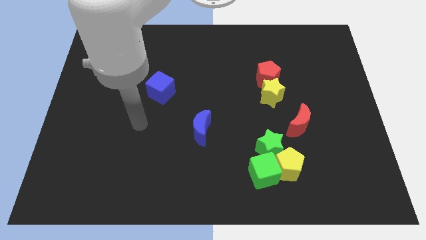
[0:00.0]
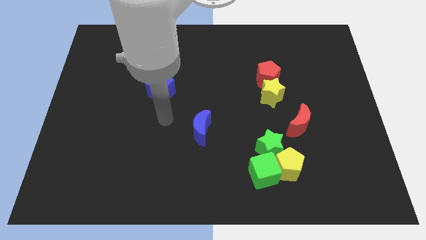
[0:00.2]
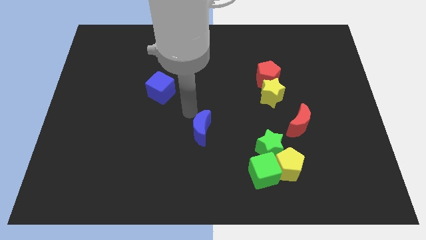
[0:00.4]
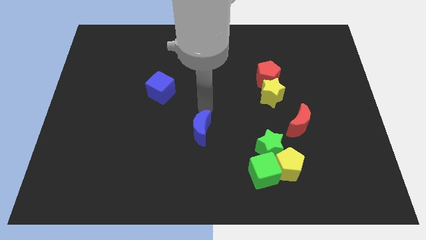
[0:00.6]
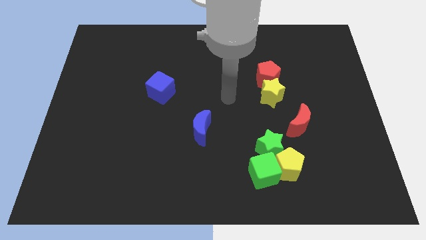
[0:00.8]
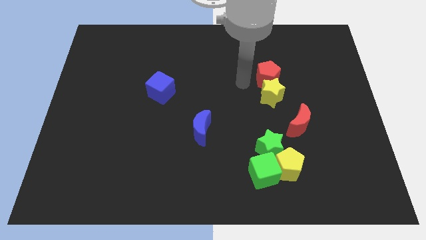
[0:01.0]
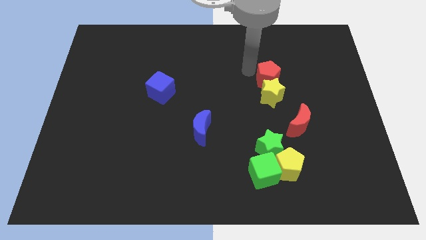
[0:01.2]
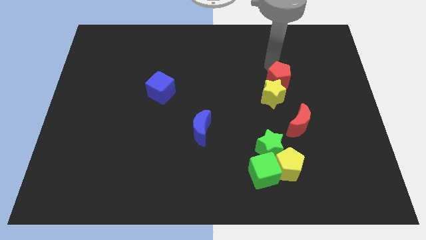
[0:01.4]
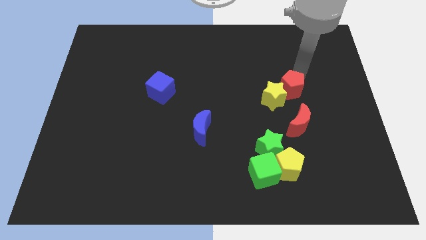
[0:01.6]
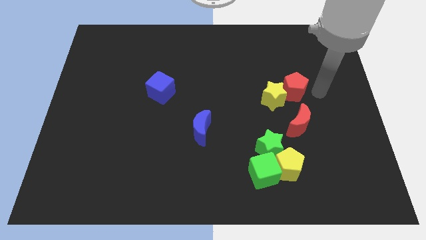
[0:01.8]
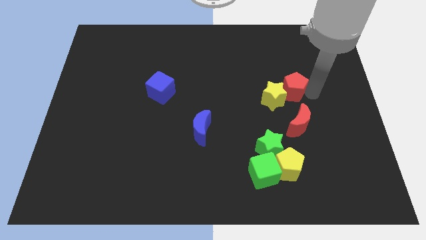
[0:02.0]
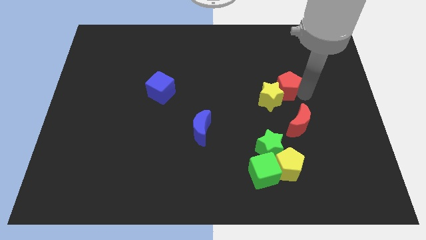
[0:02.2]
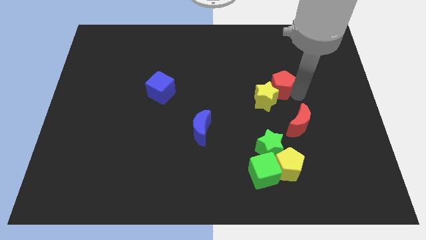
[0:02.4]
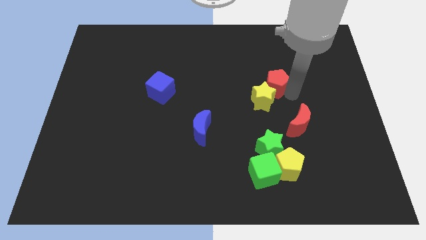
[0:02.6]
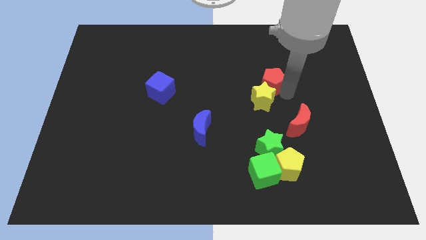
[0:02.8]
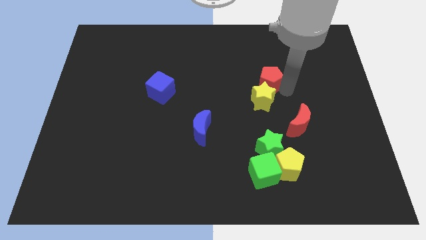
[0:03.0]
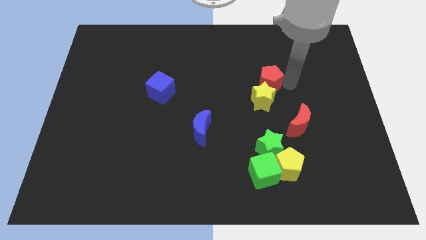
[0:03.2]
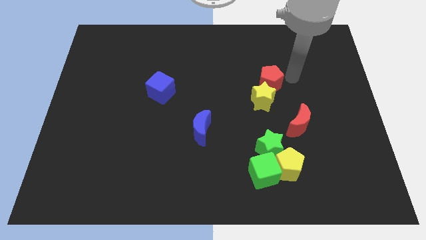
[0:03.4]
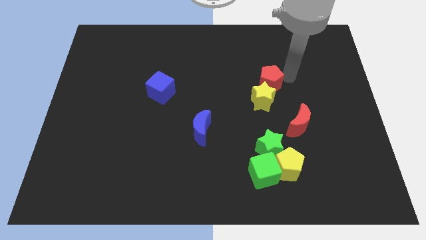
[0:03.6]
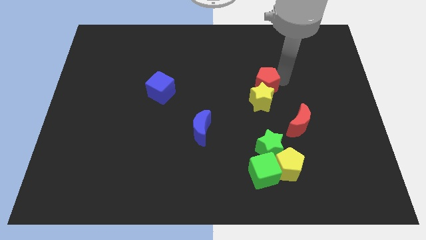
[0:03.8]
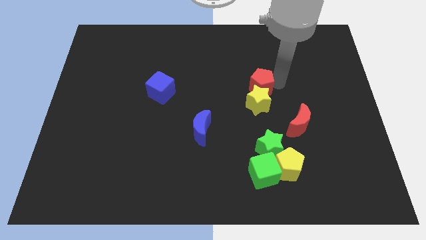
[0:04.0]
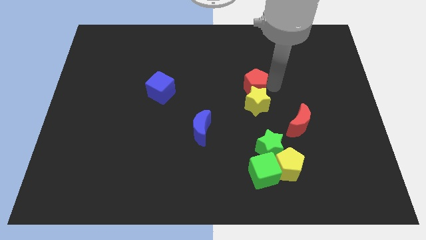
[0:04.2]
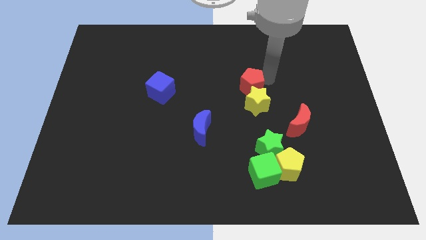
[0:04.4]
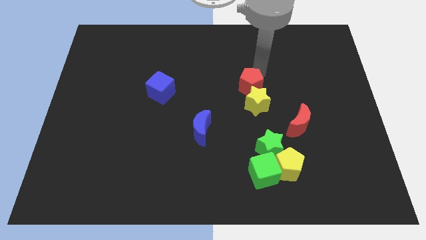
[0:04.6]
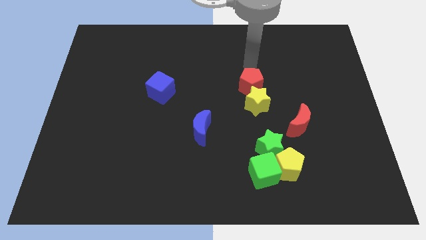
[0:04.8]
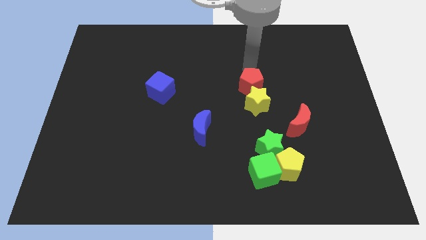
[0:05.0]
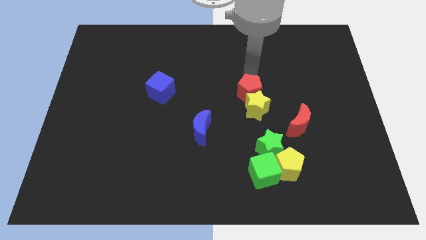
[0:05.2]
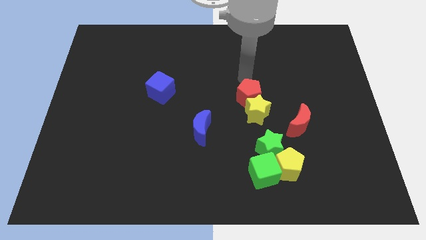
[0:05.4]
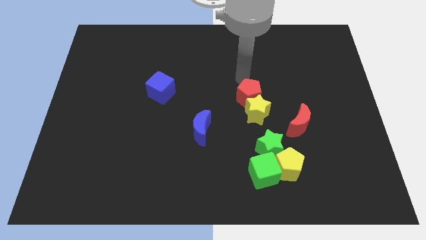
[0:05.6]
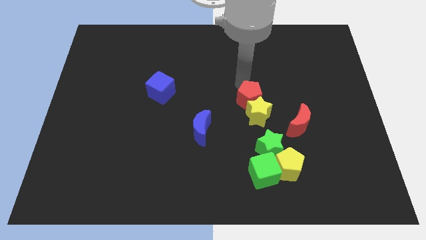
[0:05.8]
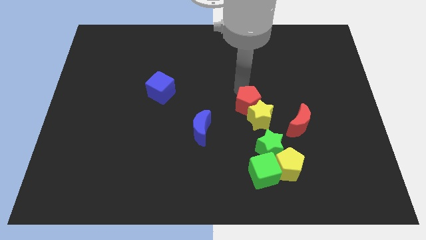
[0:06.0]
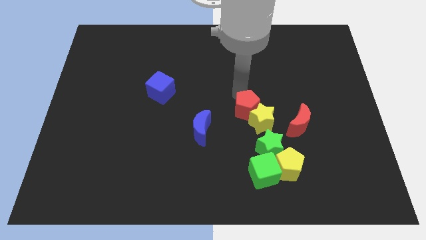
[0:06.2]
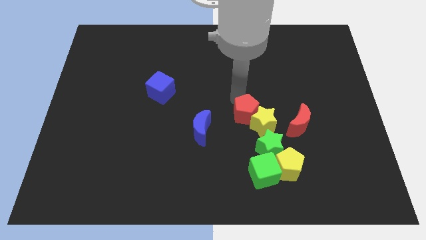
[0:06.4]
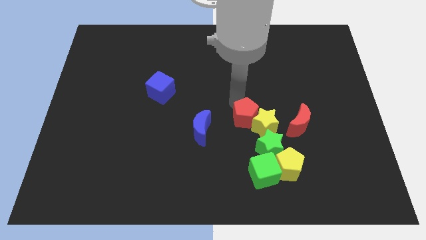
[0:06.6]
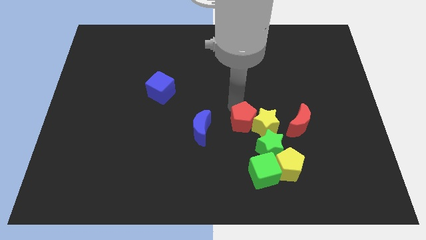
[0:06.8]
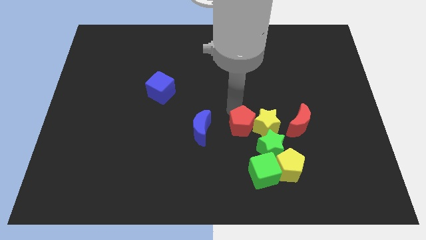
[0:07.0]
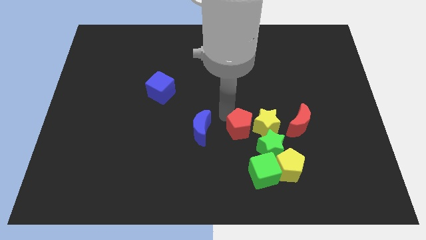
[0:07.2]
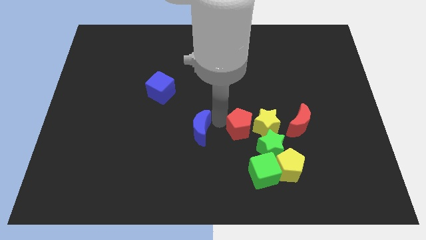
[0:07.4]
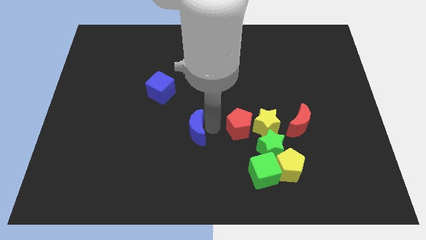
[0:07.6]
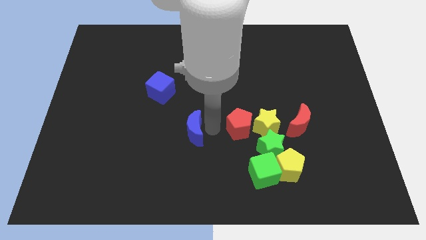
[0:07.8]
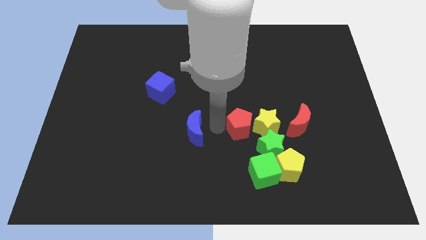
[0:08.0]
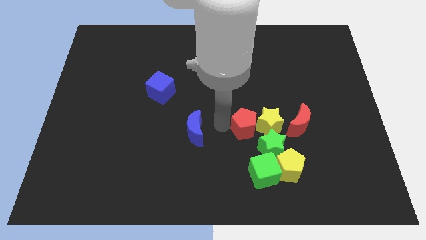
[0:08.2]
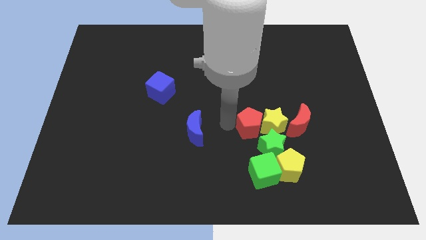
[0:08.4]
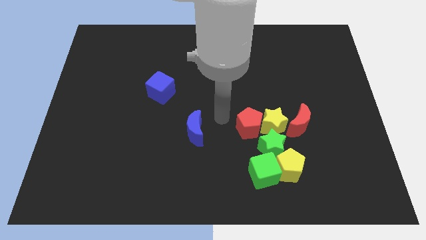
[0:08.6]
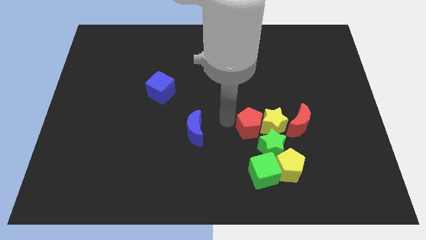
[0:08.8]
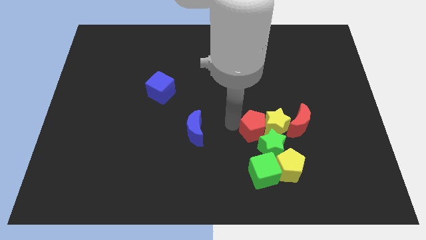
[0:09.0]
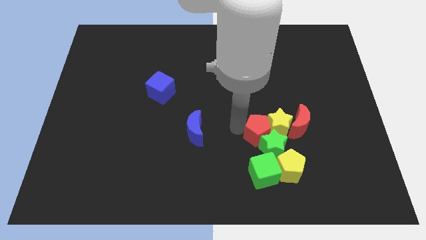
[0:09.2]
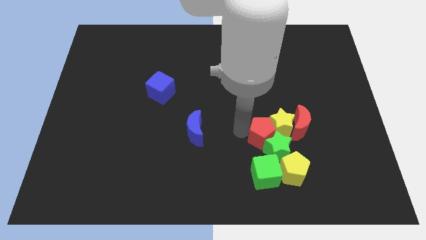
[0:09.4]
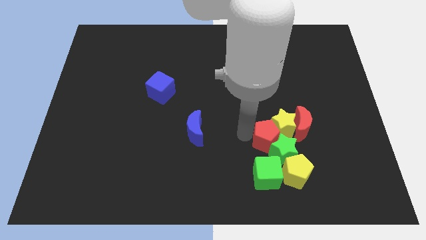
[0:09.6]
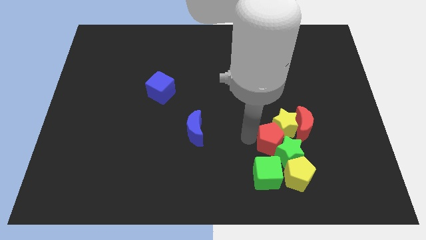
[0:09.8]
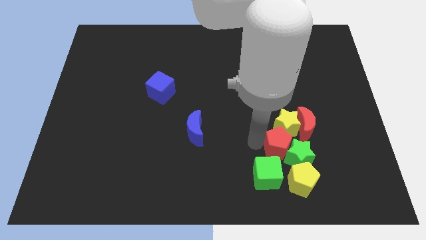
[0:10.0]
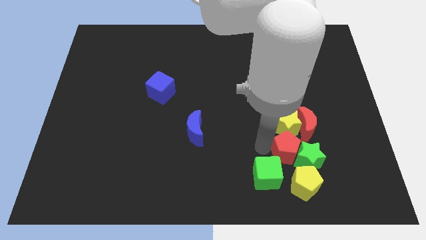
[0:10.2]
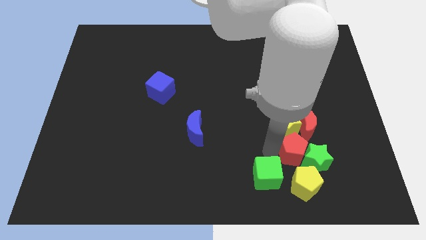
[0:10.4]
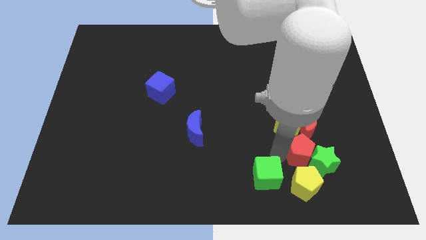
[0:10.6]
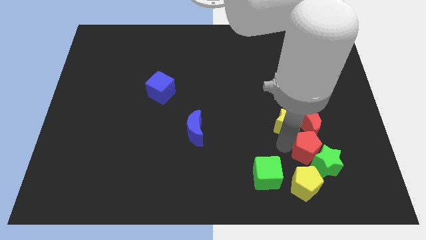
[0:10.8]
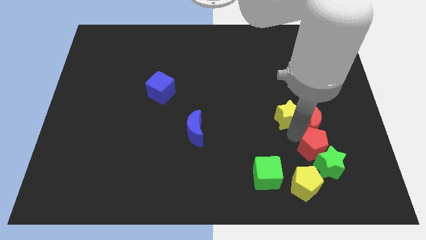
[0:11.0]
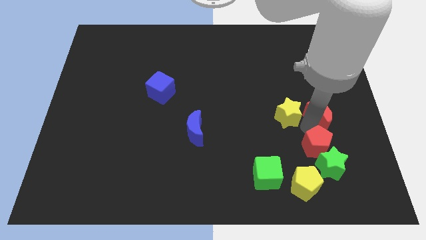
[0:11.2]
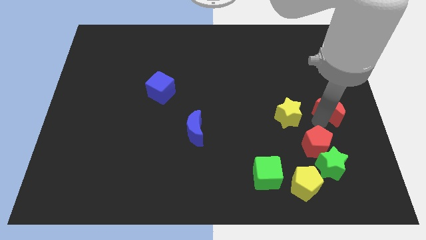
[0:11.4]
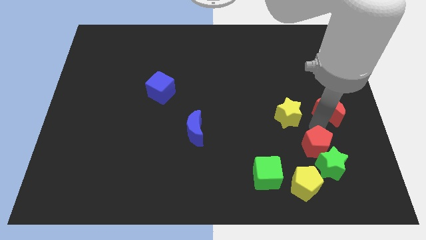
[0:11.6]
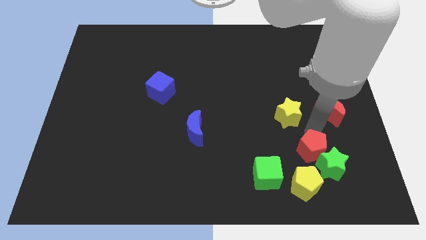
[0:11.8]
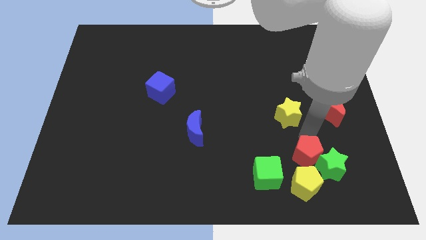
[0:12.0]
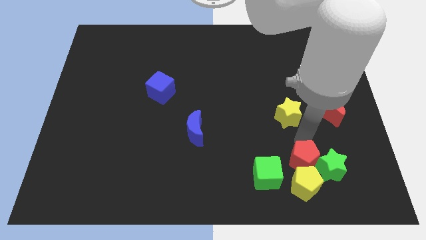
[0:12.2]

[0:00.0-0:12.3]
move the red pentagon next to the yellow pentagon
